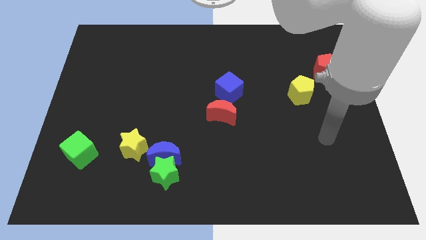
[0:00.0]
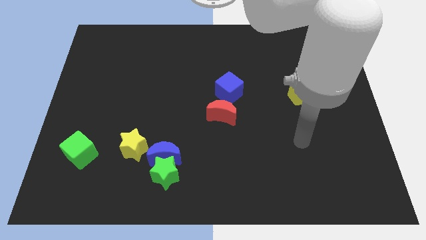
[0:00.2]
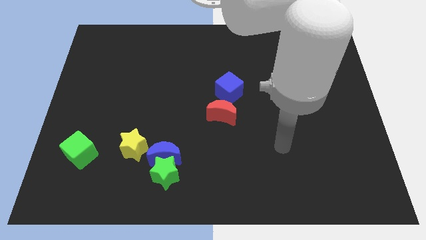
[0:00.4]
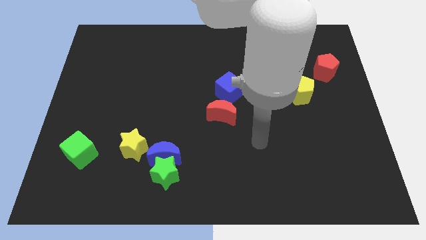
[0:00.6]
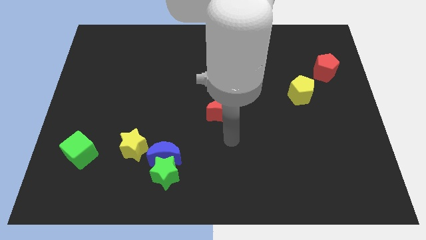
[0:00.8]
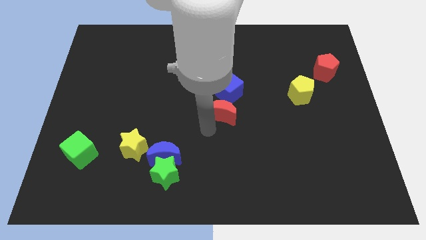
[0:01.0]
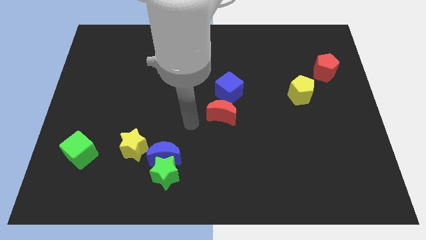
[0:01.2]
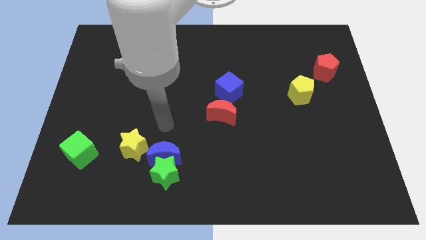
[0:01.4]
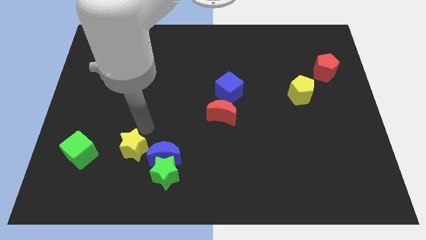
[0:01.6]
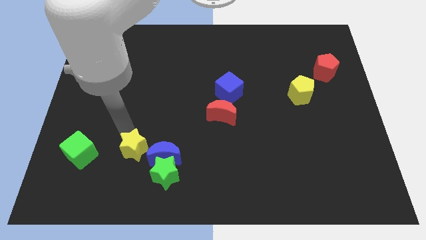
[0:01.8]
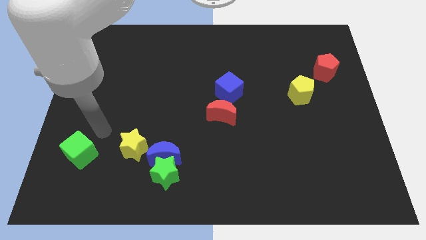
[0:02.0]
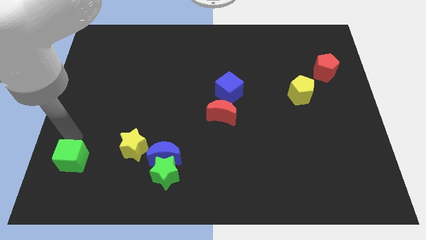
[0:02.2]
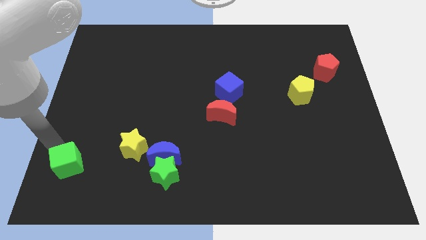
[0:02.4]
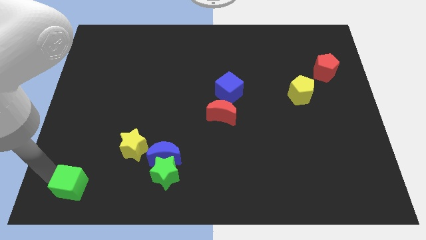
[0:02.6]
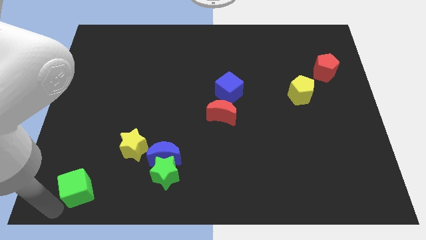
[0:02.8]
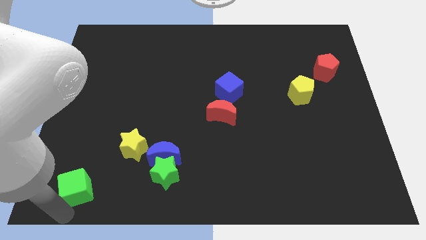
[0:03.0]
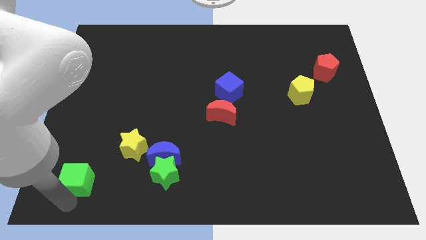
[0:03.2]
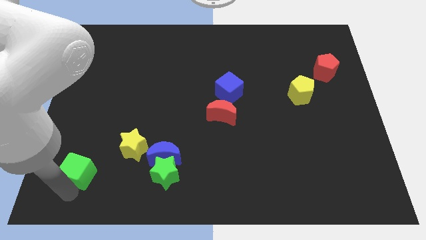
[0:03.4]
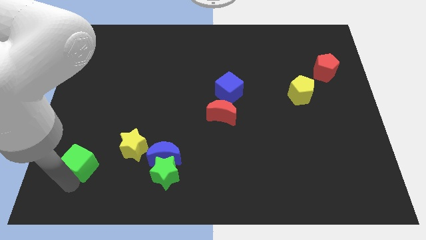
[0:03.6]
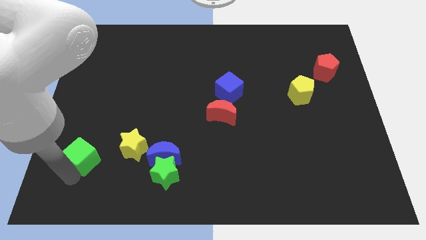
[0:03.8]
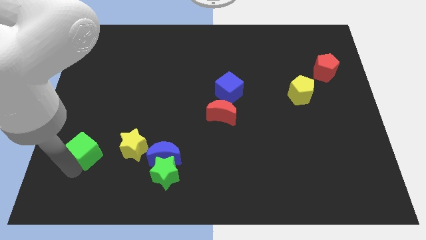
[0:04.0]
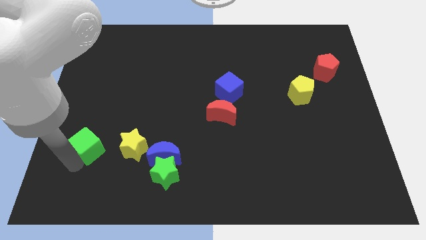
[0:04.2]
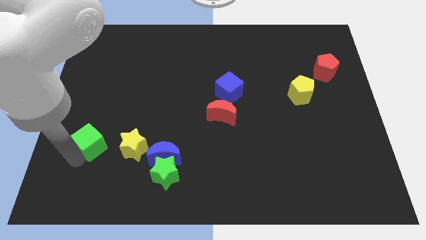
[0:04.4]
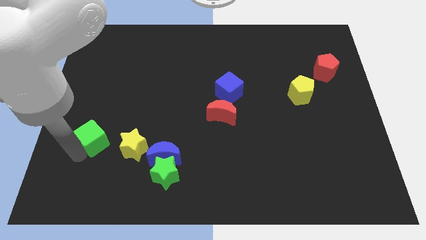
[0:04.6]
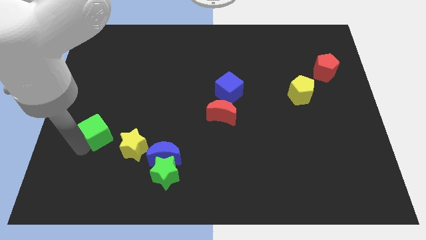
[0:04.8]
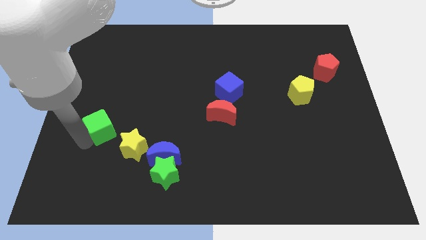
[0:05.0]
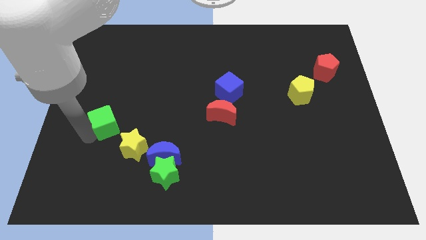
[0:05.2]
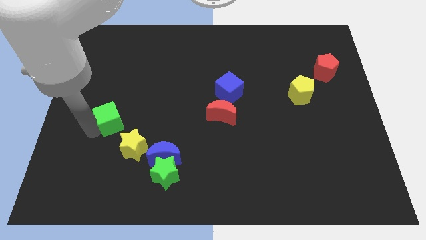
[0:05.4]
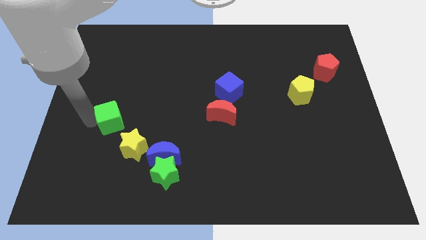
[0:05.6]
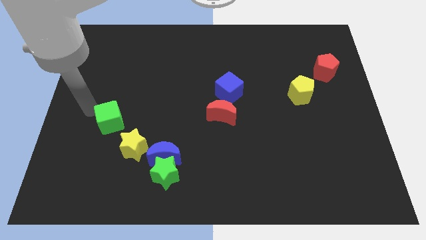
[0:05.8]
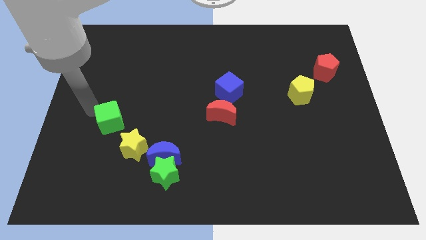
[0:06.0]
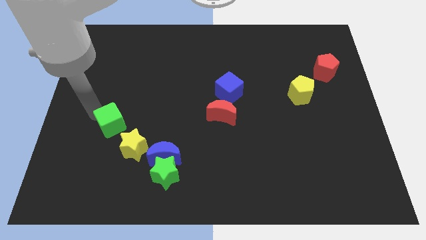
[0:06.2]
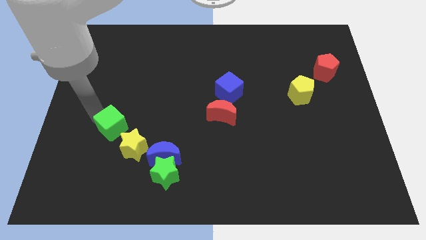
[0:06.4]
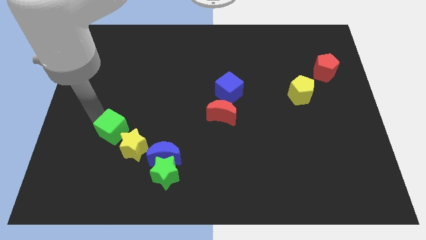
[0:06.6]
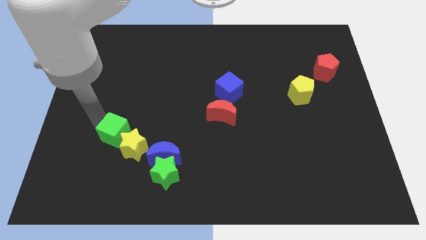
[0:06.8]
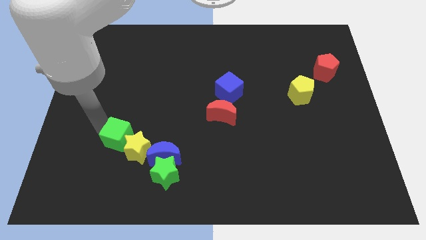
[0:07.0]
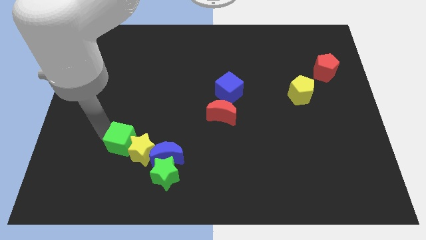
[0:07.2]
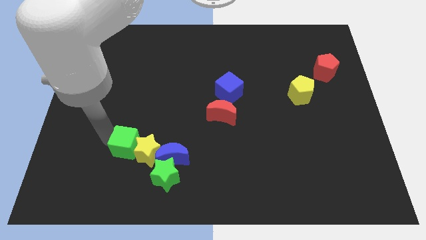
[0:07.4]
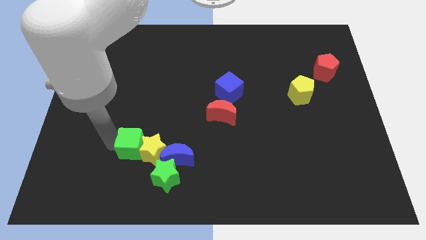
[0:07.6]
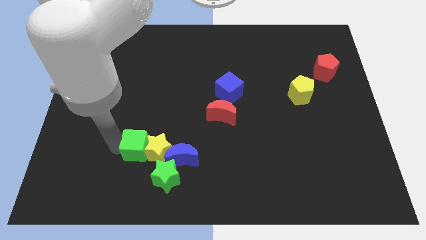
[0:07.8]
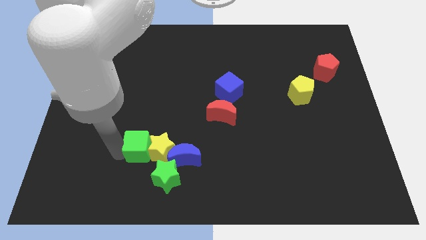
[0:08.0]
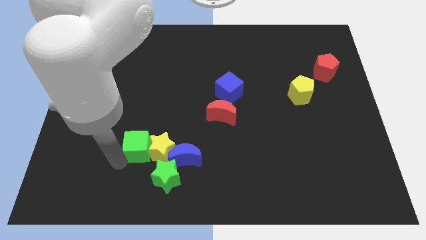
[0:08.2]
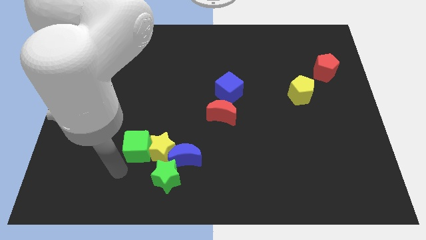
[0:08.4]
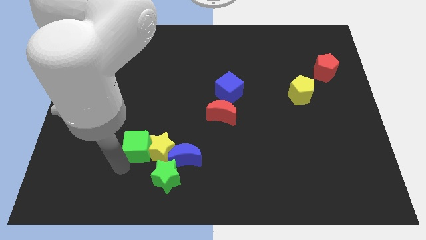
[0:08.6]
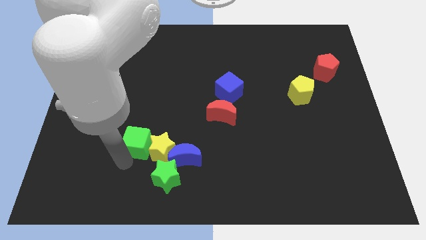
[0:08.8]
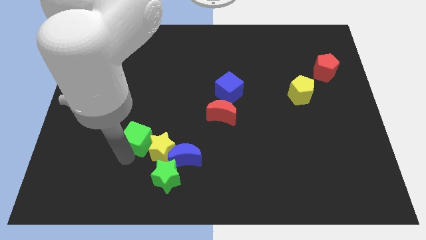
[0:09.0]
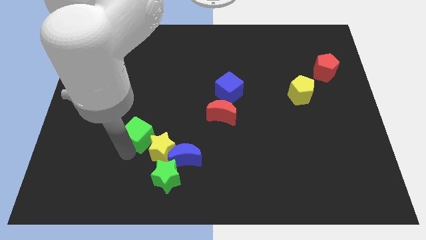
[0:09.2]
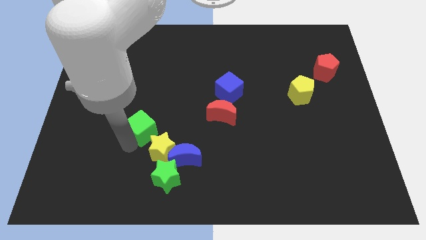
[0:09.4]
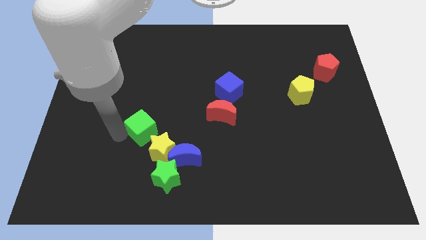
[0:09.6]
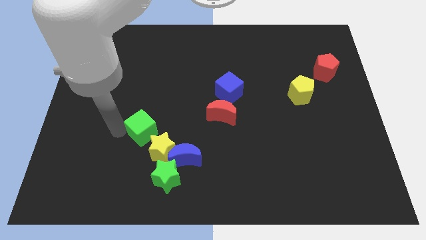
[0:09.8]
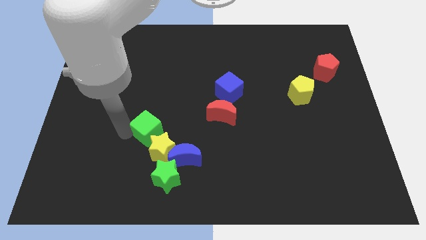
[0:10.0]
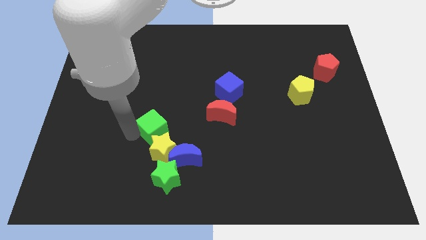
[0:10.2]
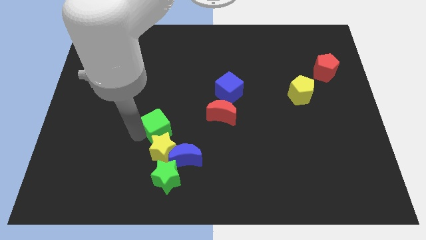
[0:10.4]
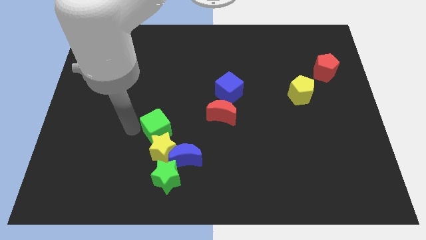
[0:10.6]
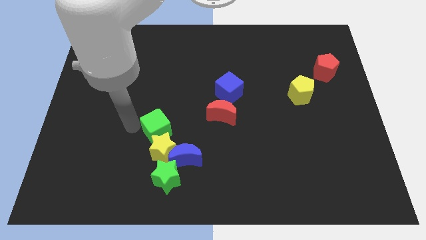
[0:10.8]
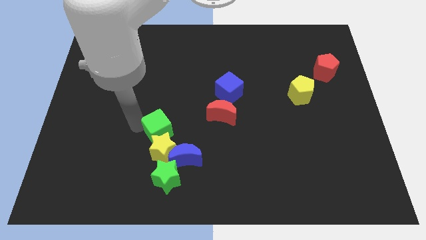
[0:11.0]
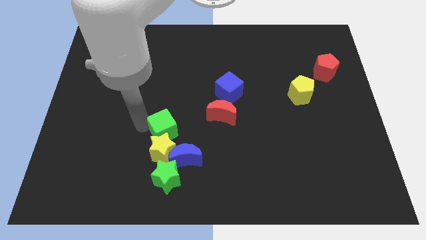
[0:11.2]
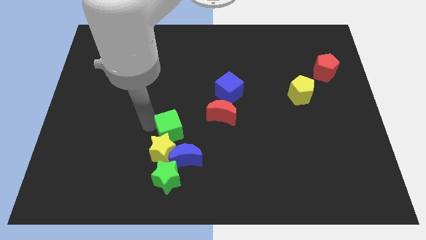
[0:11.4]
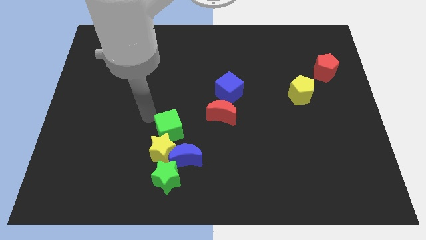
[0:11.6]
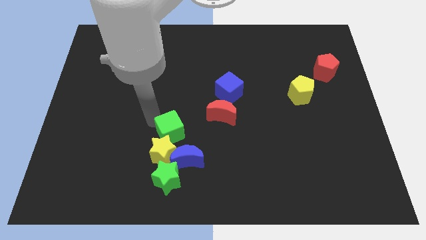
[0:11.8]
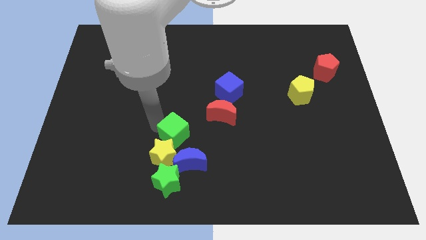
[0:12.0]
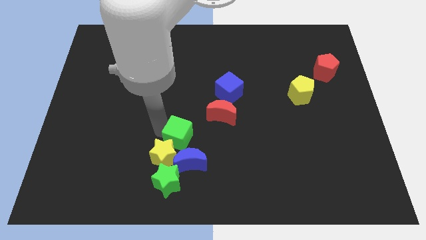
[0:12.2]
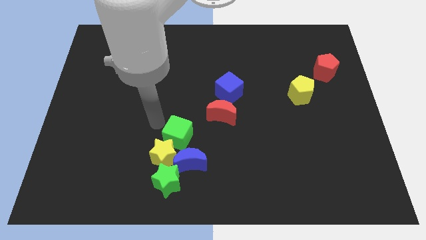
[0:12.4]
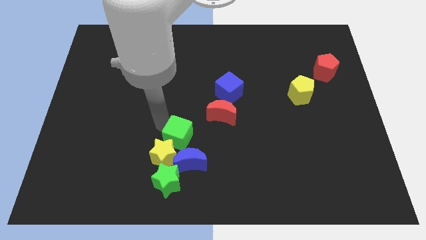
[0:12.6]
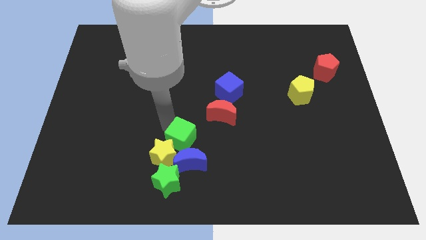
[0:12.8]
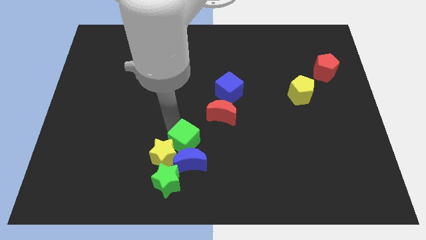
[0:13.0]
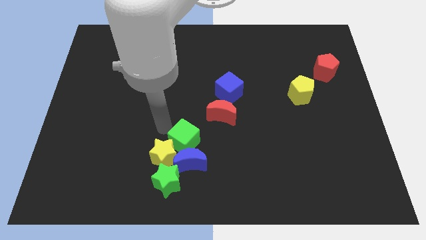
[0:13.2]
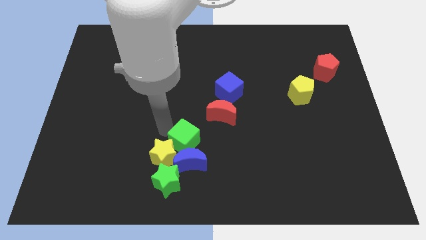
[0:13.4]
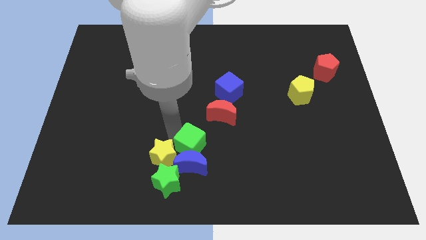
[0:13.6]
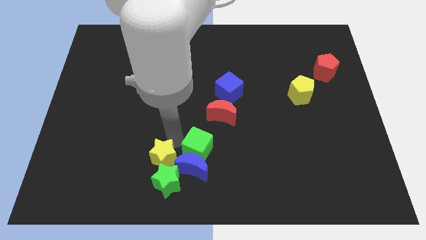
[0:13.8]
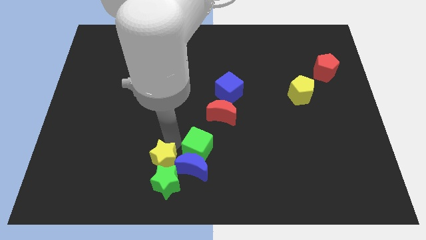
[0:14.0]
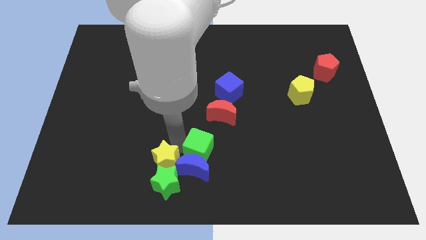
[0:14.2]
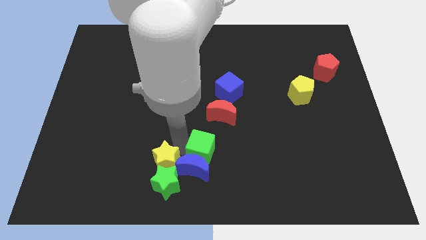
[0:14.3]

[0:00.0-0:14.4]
push the green cube to the bottom side of the red moon

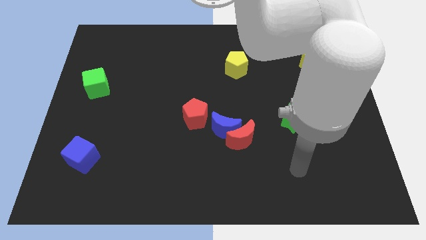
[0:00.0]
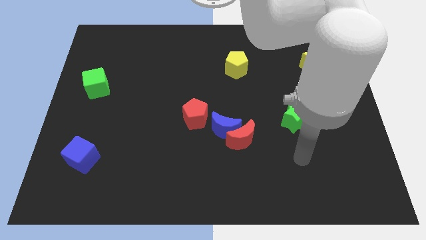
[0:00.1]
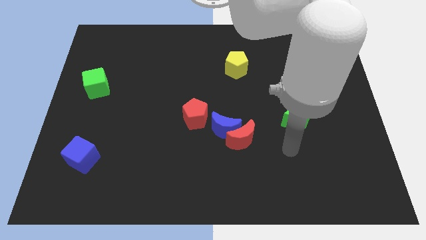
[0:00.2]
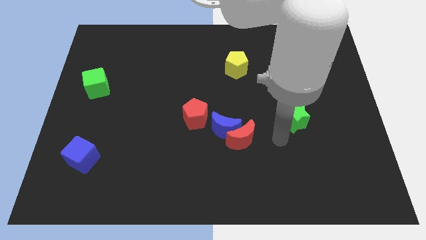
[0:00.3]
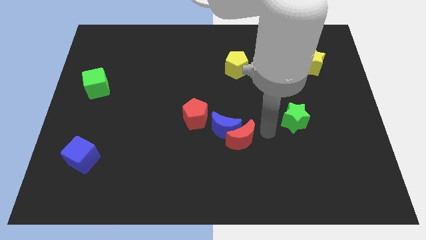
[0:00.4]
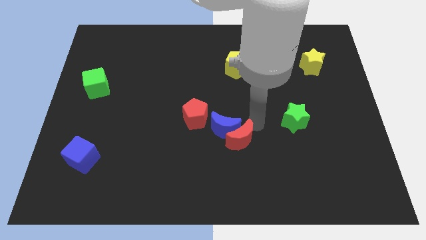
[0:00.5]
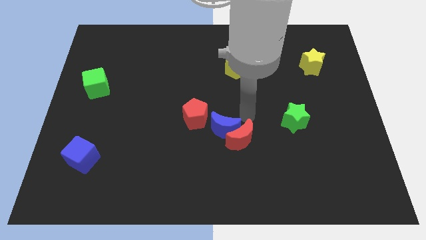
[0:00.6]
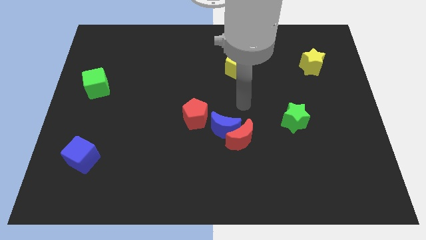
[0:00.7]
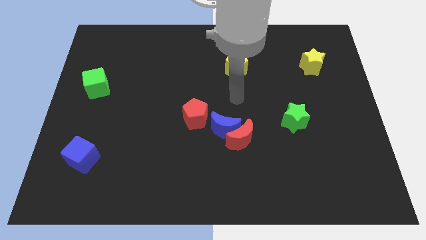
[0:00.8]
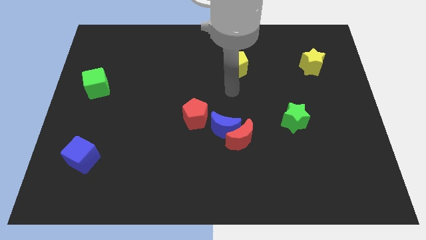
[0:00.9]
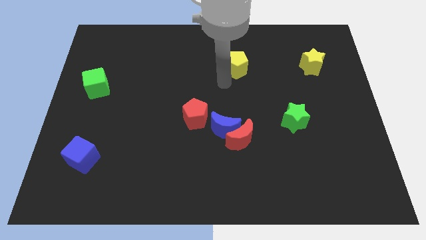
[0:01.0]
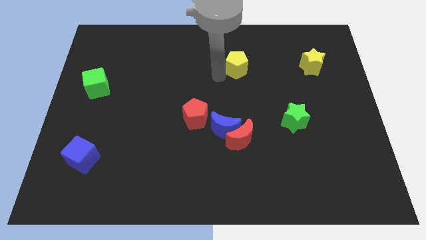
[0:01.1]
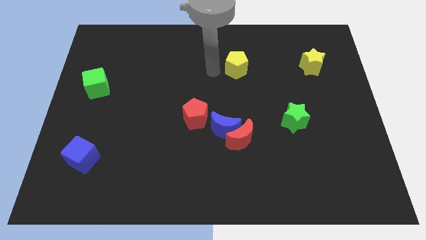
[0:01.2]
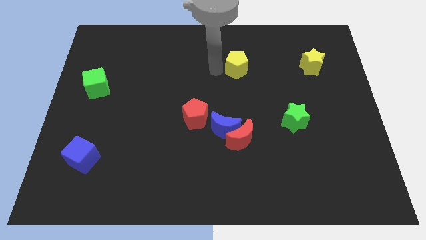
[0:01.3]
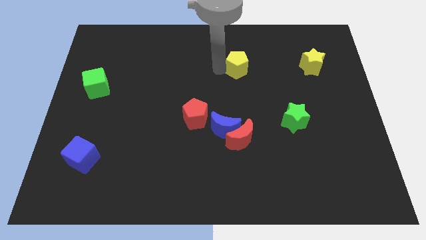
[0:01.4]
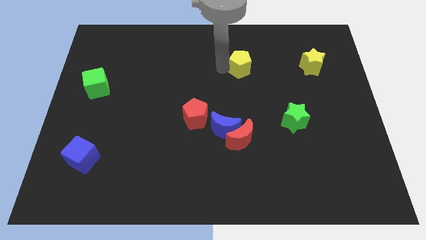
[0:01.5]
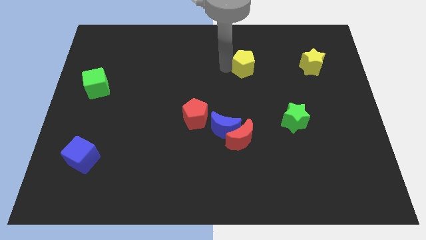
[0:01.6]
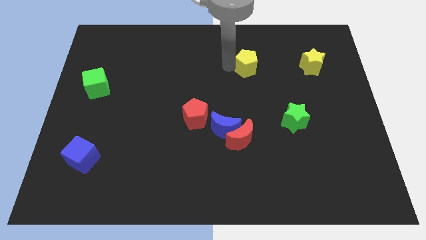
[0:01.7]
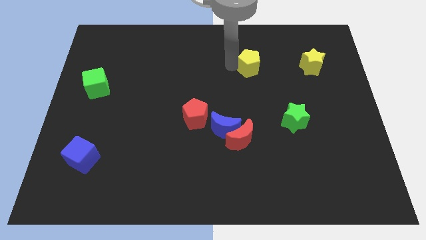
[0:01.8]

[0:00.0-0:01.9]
slide the yellow pentagon to the left of the yellow star
